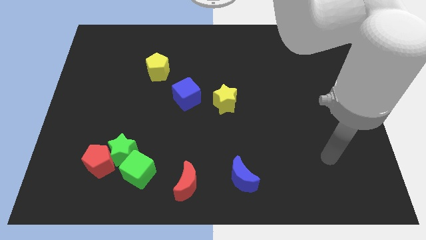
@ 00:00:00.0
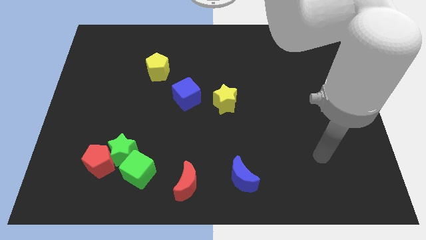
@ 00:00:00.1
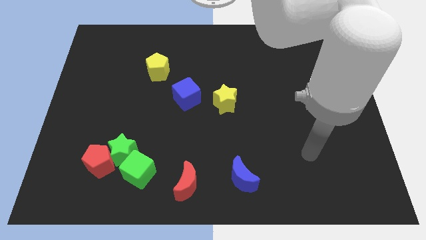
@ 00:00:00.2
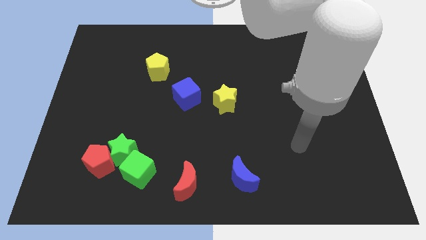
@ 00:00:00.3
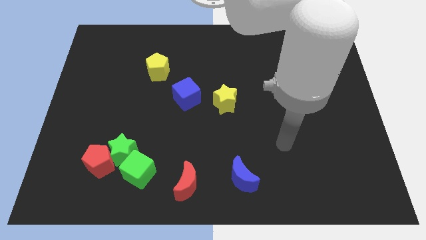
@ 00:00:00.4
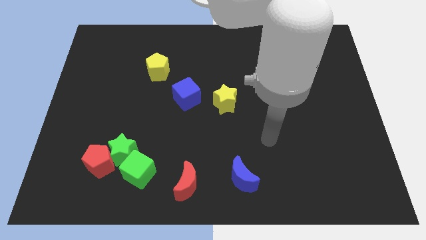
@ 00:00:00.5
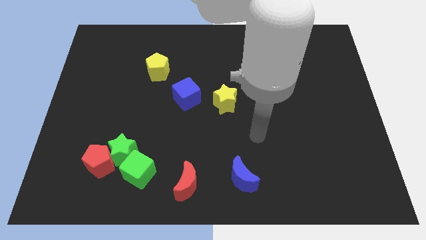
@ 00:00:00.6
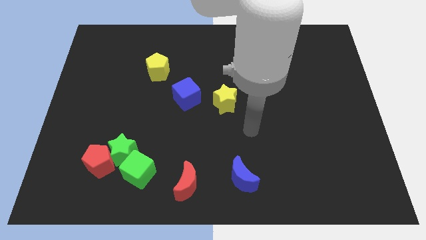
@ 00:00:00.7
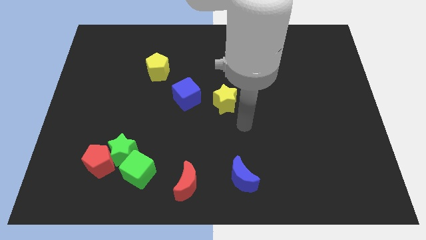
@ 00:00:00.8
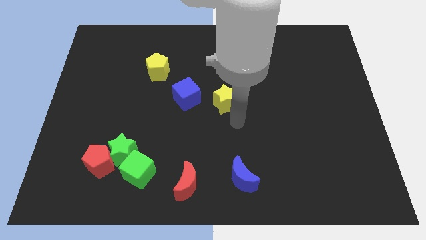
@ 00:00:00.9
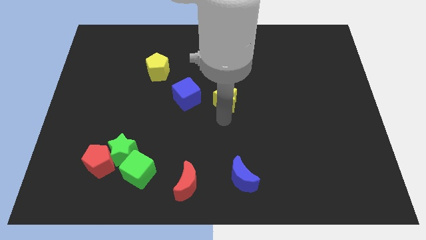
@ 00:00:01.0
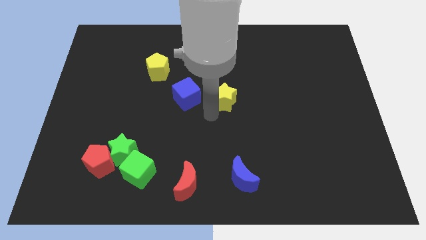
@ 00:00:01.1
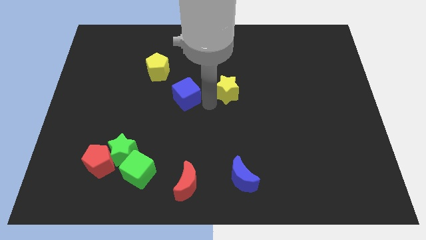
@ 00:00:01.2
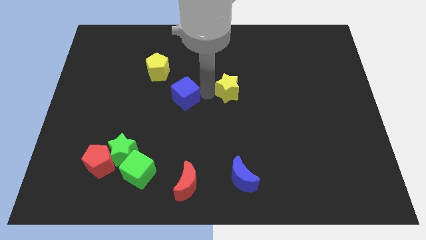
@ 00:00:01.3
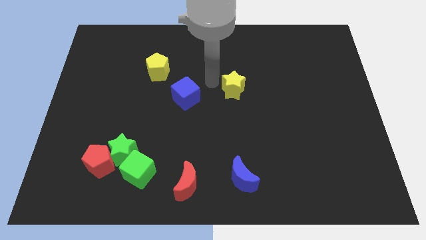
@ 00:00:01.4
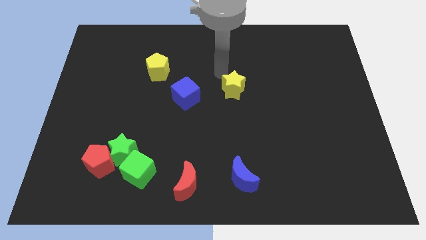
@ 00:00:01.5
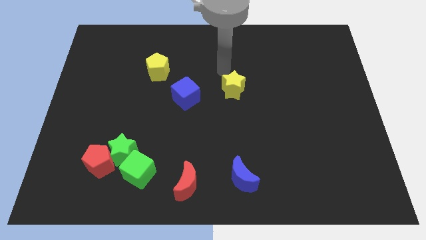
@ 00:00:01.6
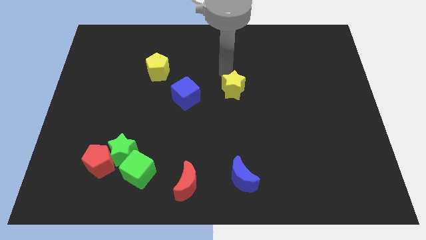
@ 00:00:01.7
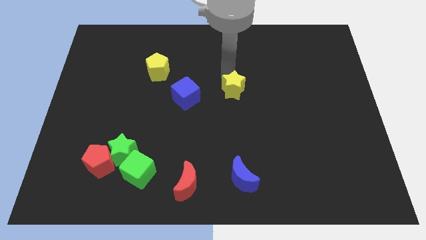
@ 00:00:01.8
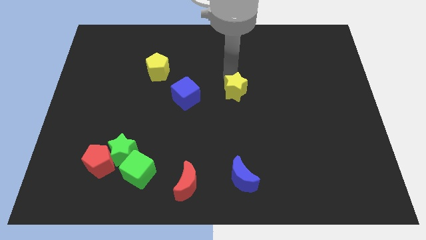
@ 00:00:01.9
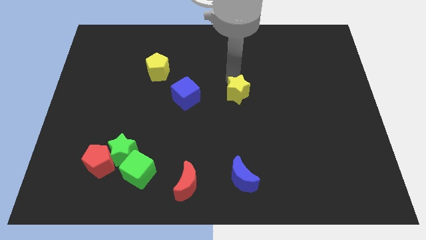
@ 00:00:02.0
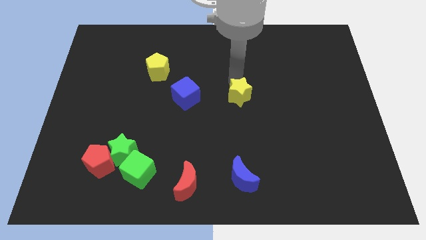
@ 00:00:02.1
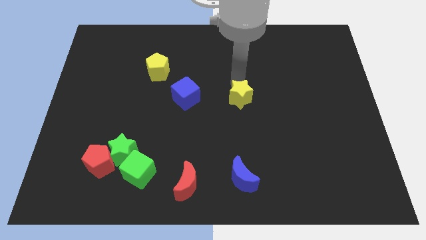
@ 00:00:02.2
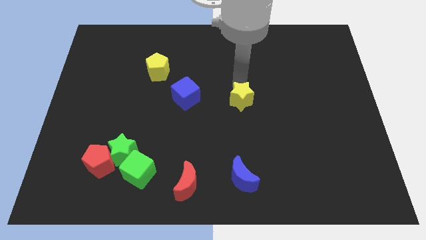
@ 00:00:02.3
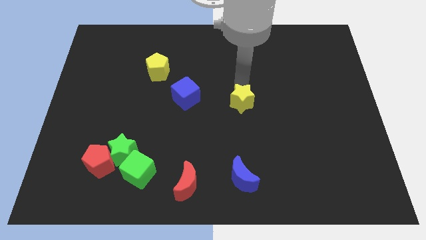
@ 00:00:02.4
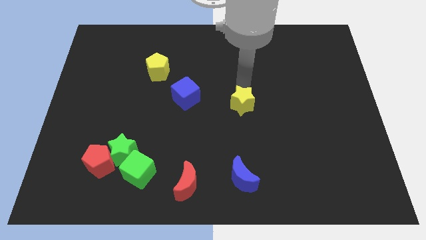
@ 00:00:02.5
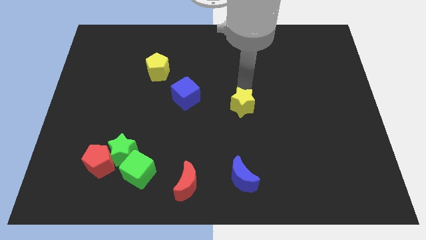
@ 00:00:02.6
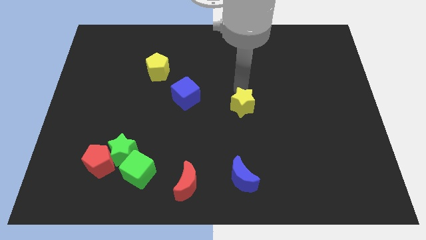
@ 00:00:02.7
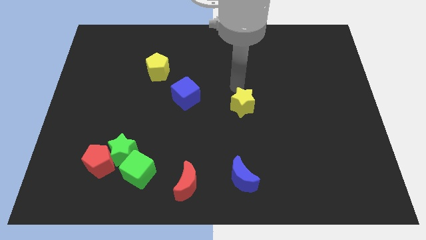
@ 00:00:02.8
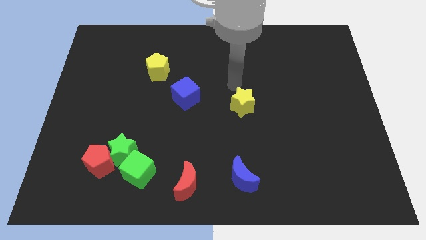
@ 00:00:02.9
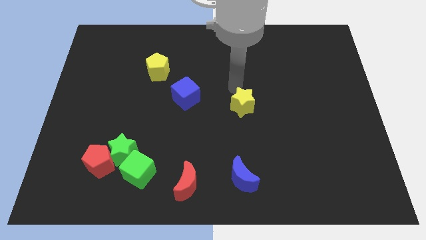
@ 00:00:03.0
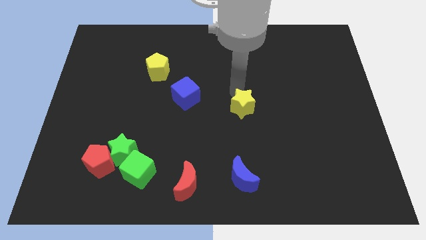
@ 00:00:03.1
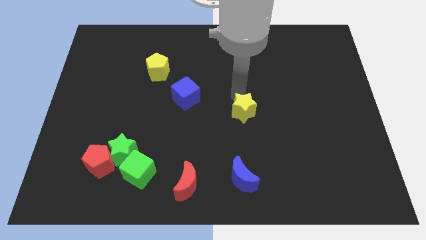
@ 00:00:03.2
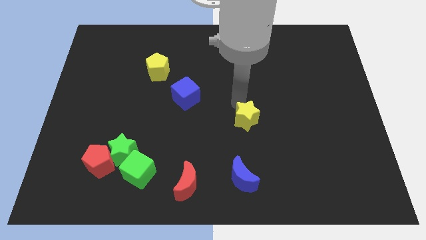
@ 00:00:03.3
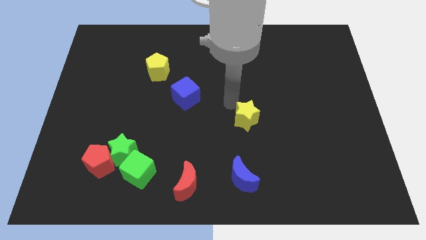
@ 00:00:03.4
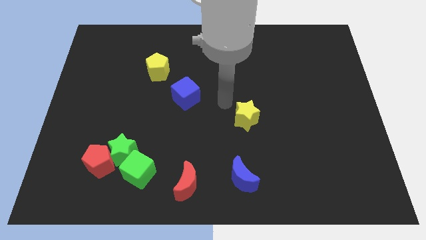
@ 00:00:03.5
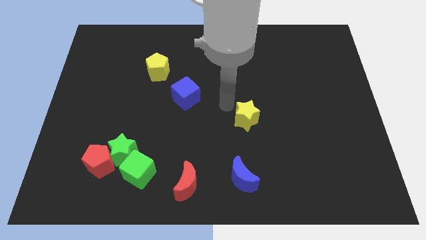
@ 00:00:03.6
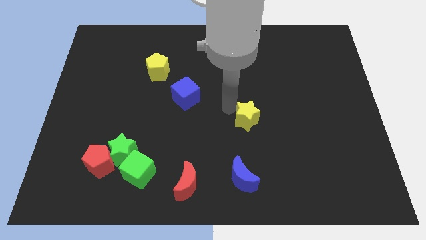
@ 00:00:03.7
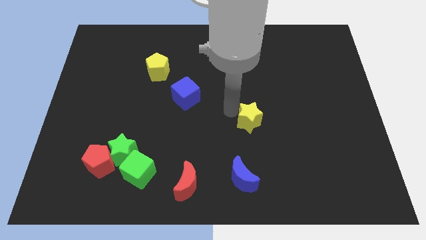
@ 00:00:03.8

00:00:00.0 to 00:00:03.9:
slightly move the yellow star downwards and right diagonally

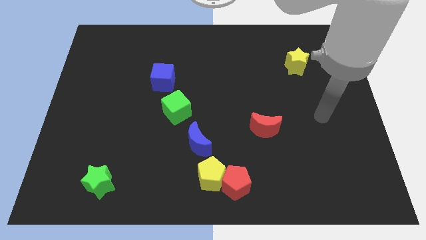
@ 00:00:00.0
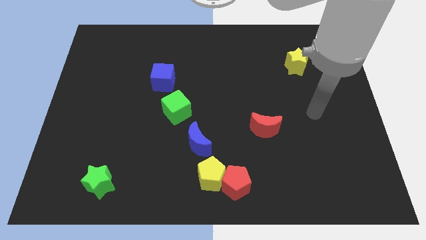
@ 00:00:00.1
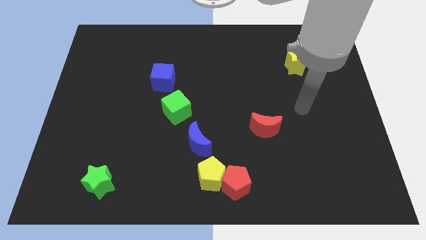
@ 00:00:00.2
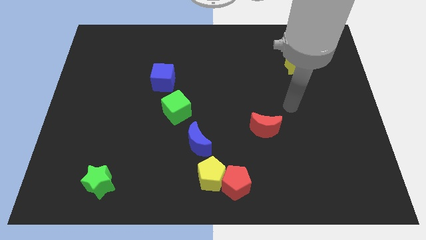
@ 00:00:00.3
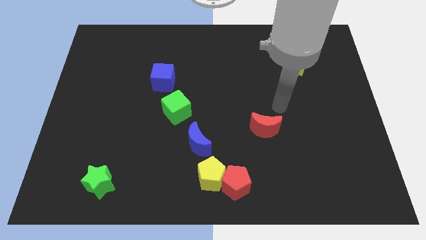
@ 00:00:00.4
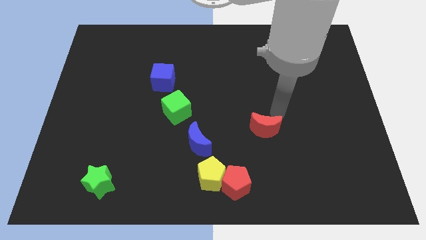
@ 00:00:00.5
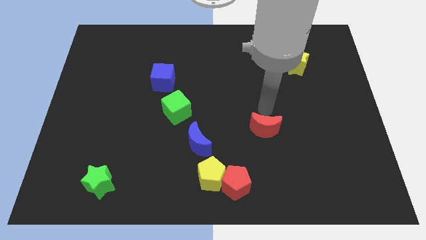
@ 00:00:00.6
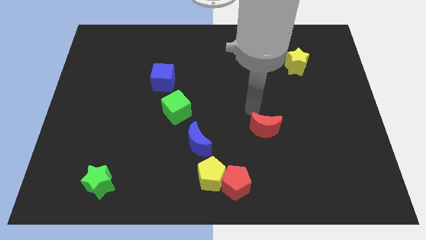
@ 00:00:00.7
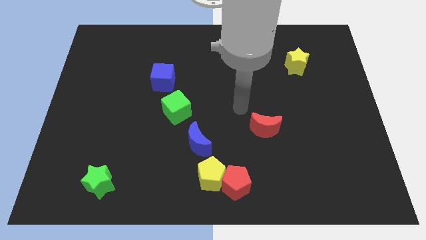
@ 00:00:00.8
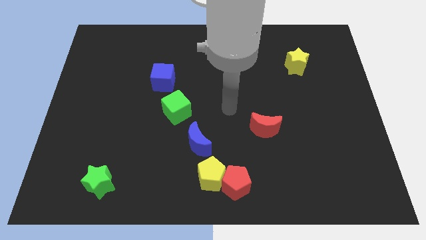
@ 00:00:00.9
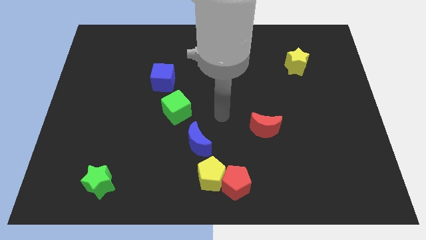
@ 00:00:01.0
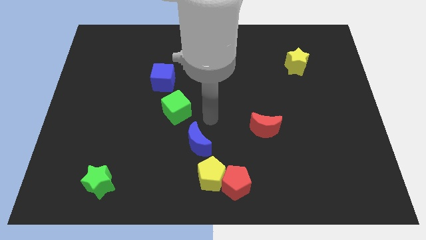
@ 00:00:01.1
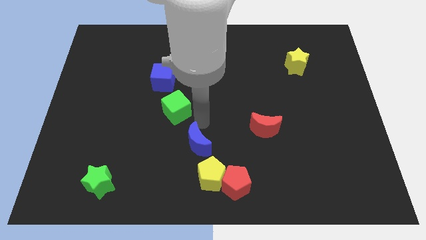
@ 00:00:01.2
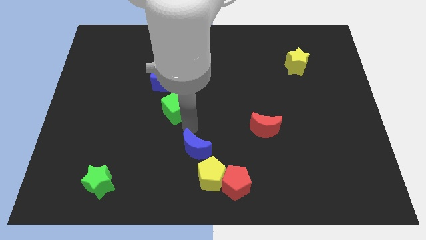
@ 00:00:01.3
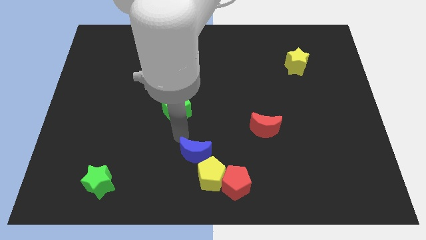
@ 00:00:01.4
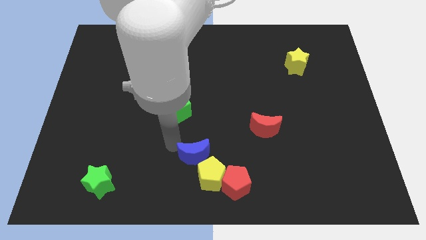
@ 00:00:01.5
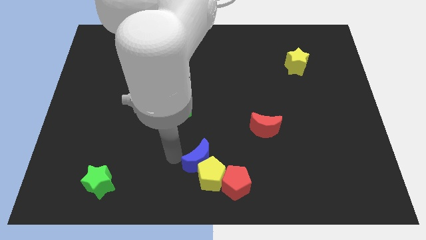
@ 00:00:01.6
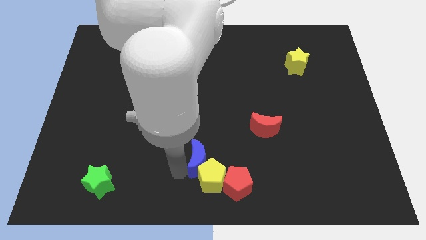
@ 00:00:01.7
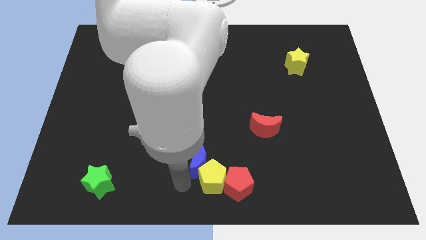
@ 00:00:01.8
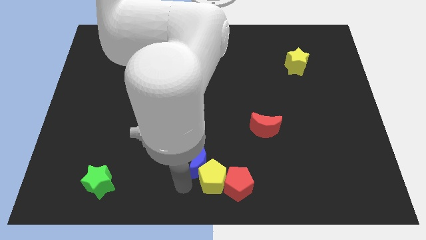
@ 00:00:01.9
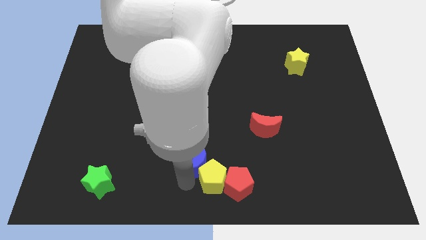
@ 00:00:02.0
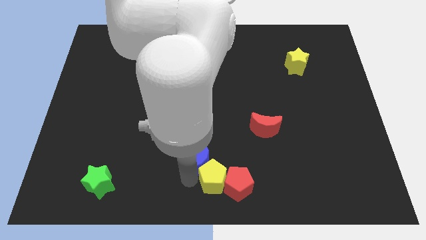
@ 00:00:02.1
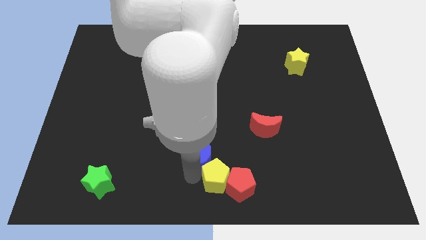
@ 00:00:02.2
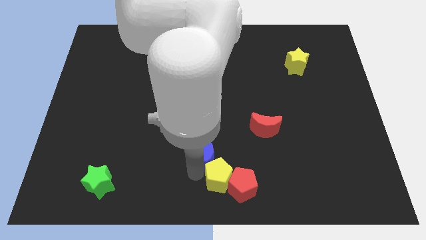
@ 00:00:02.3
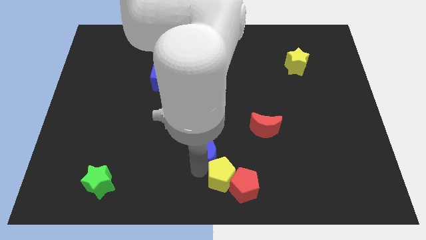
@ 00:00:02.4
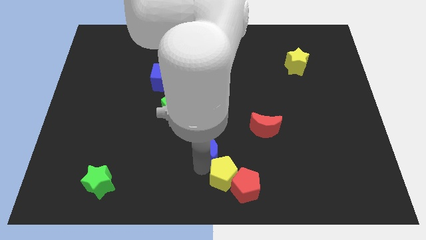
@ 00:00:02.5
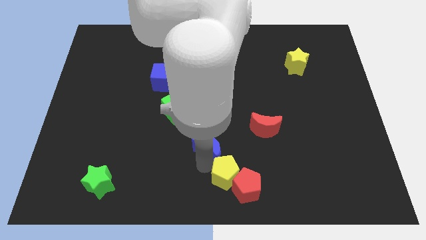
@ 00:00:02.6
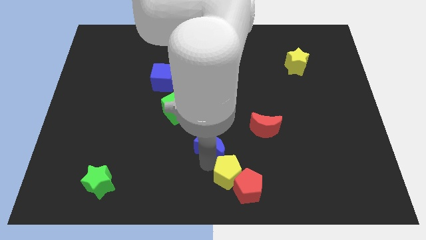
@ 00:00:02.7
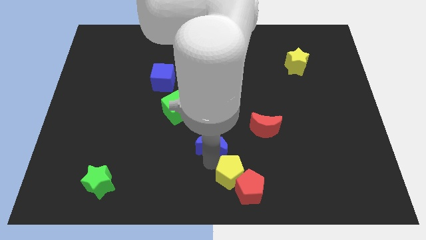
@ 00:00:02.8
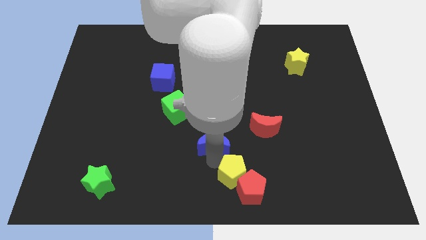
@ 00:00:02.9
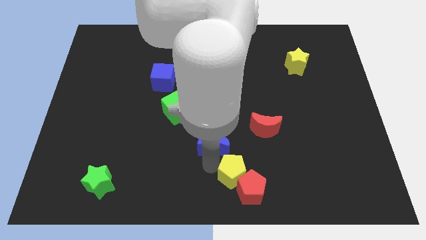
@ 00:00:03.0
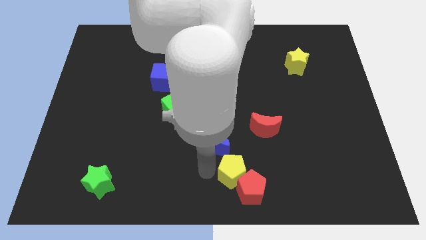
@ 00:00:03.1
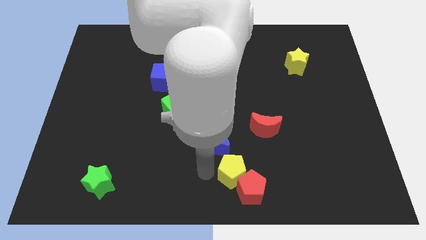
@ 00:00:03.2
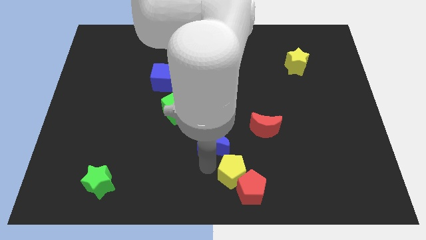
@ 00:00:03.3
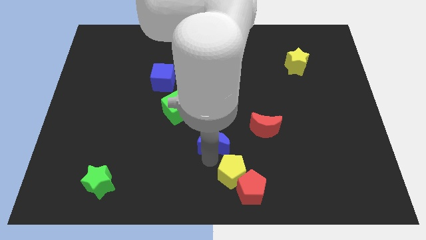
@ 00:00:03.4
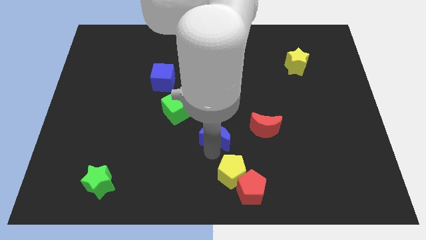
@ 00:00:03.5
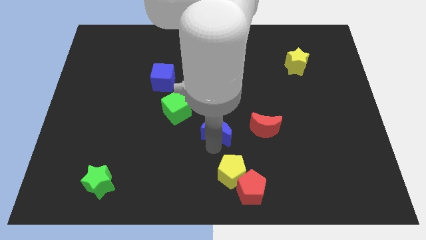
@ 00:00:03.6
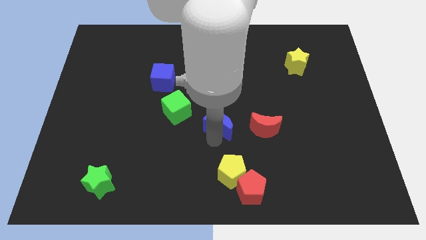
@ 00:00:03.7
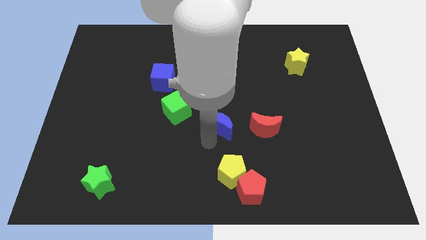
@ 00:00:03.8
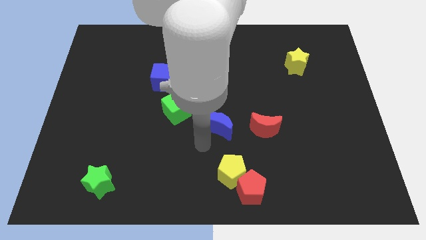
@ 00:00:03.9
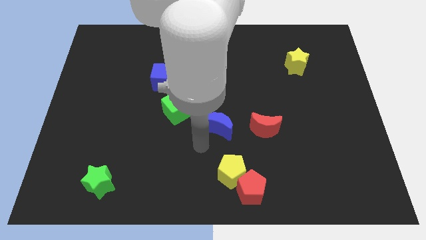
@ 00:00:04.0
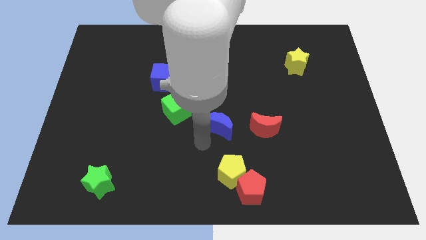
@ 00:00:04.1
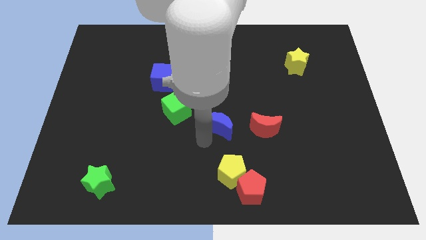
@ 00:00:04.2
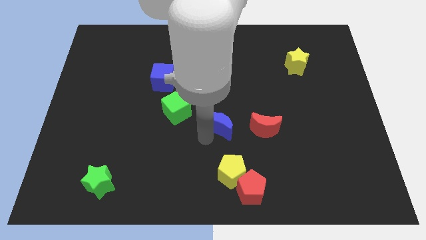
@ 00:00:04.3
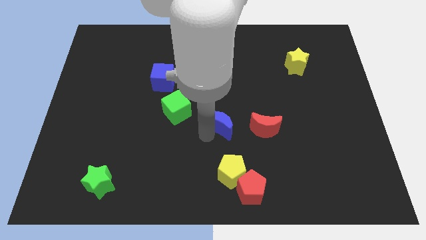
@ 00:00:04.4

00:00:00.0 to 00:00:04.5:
slightly push the blue moon upwards and then right
